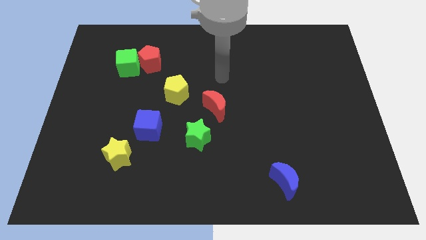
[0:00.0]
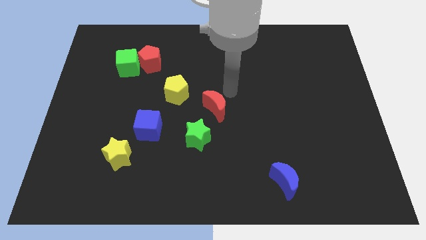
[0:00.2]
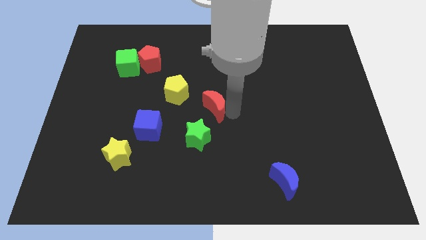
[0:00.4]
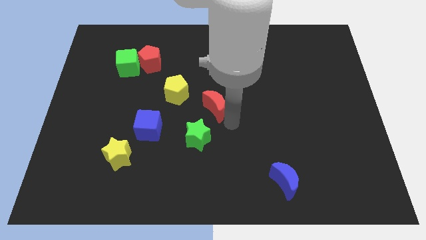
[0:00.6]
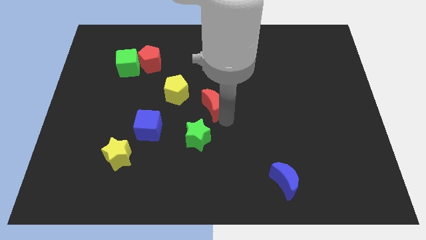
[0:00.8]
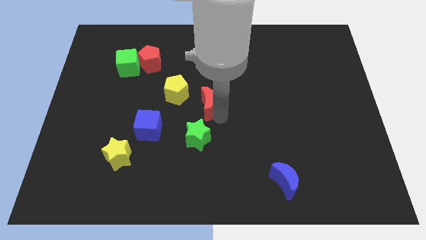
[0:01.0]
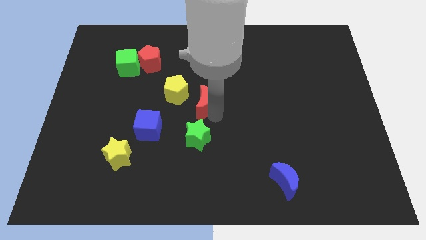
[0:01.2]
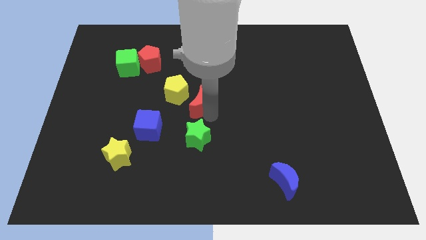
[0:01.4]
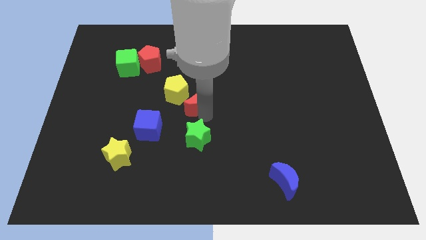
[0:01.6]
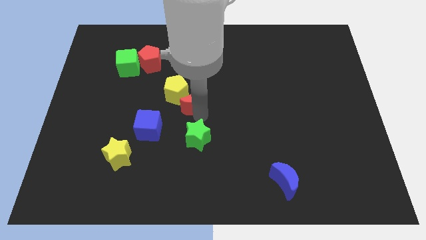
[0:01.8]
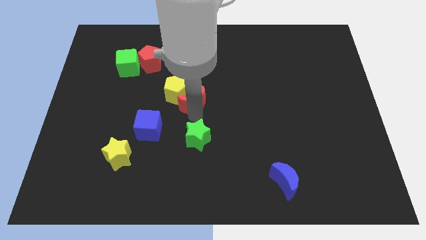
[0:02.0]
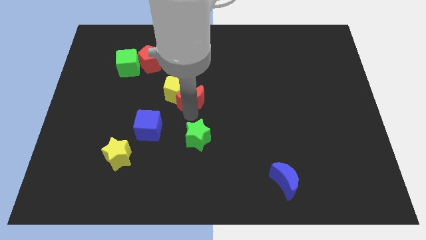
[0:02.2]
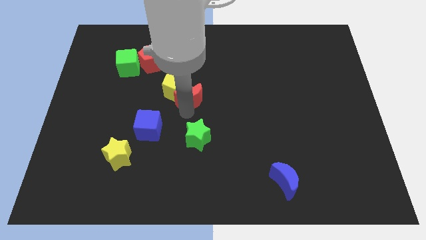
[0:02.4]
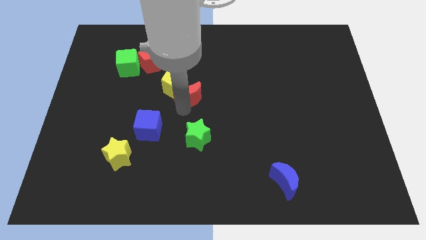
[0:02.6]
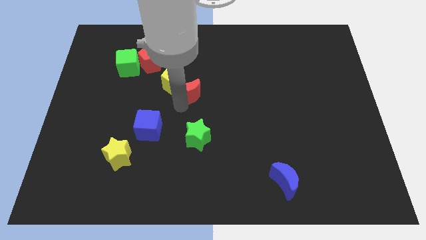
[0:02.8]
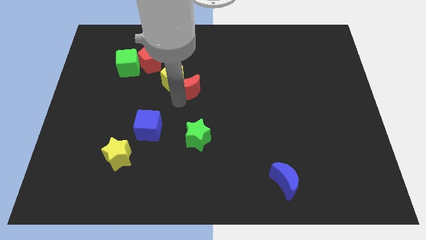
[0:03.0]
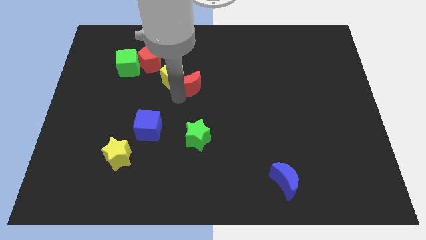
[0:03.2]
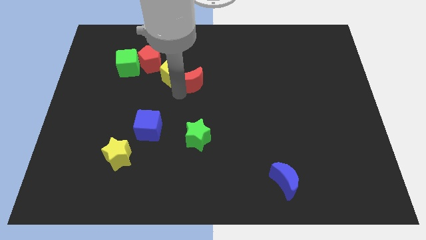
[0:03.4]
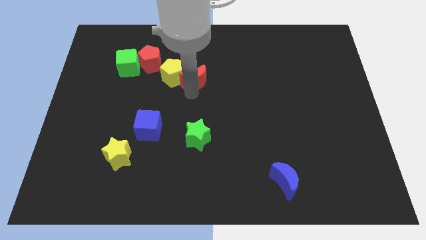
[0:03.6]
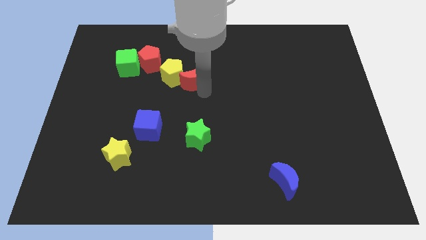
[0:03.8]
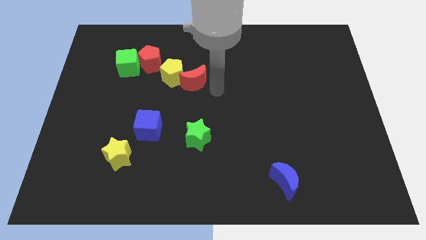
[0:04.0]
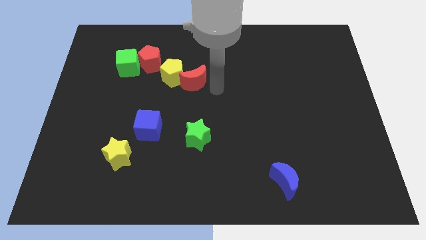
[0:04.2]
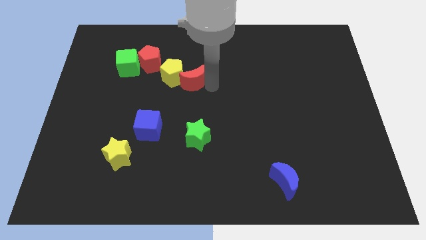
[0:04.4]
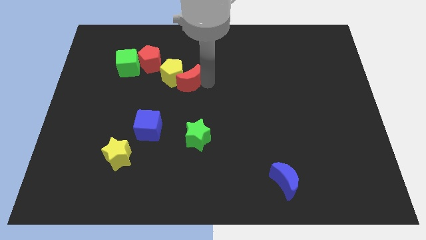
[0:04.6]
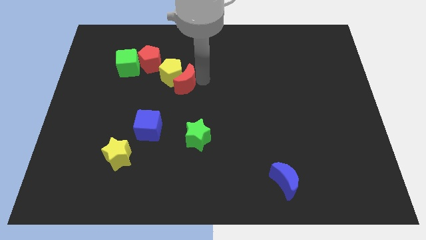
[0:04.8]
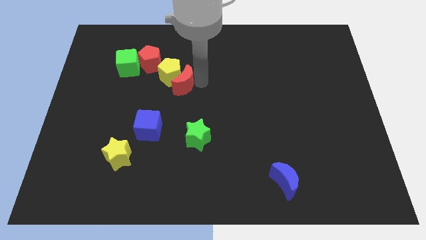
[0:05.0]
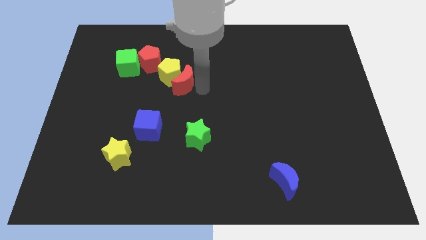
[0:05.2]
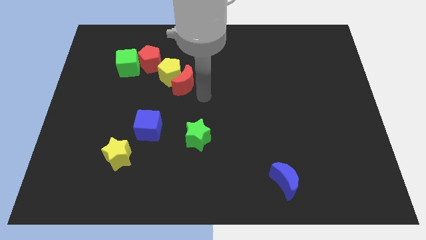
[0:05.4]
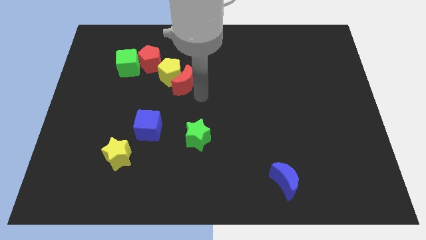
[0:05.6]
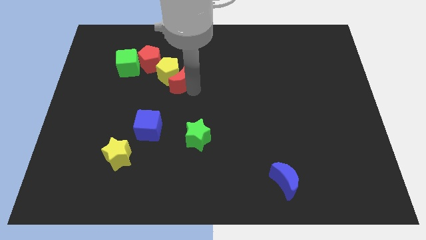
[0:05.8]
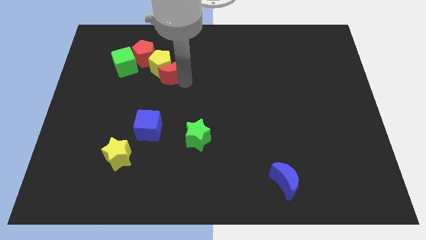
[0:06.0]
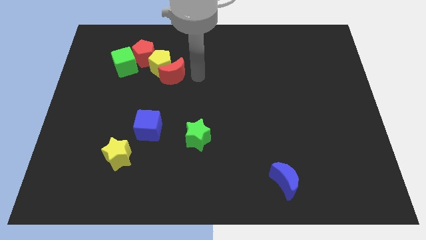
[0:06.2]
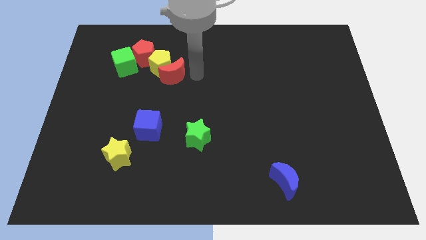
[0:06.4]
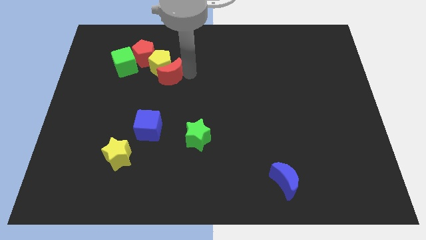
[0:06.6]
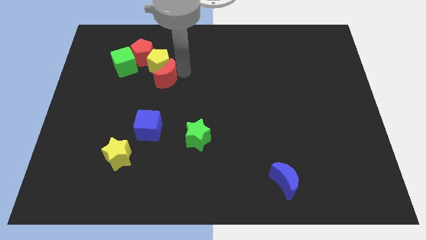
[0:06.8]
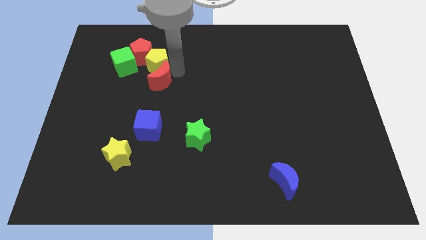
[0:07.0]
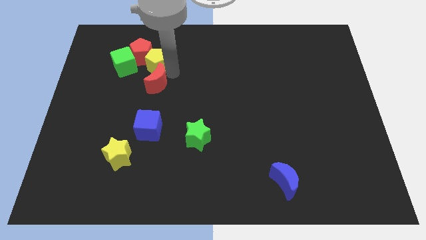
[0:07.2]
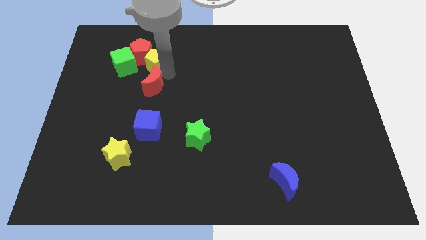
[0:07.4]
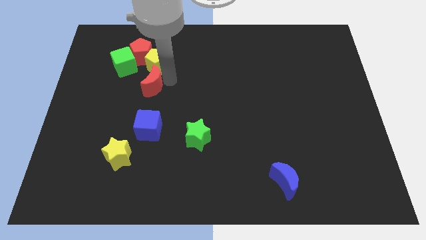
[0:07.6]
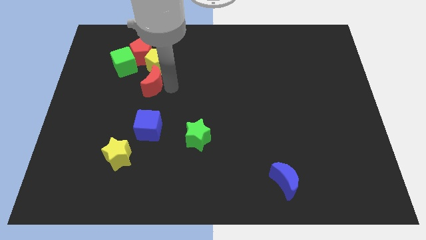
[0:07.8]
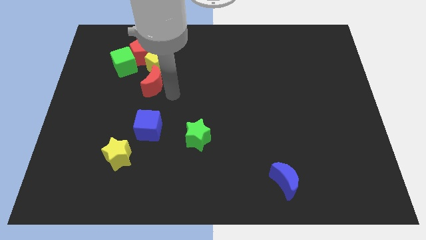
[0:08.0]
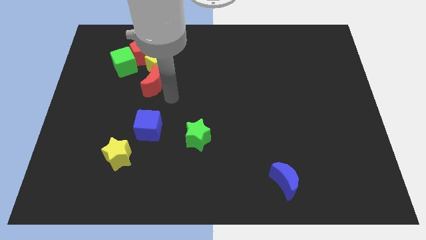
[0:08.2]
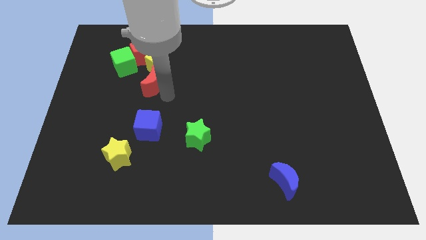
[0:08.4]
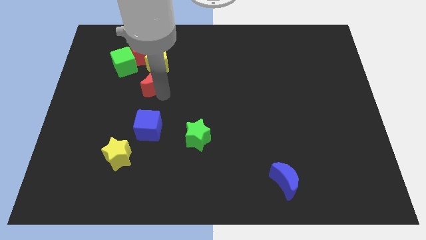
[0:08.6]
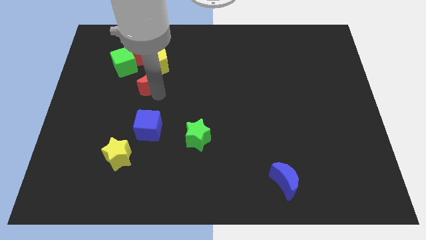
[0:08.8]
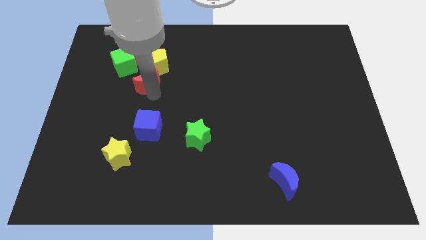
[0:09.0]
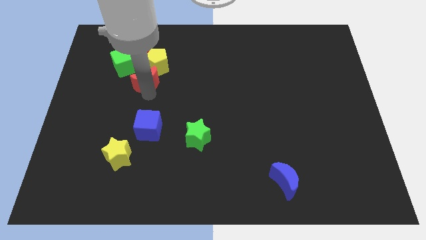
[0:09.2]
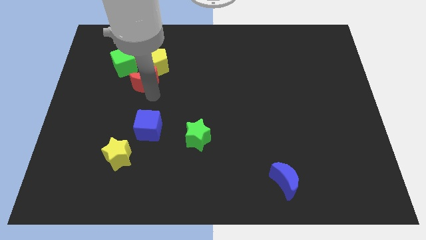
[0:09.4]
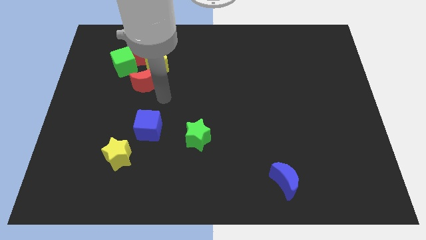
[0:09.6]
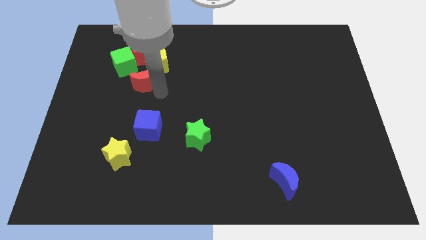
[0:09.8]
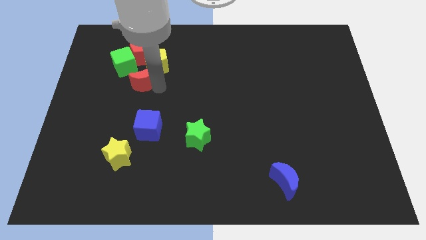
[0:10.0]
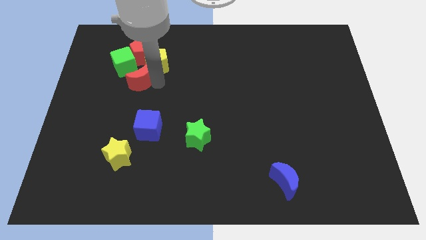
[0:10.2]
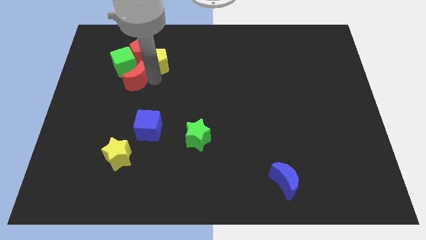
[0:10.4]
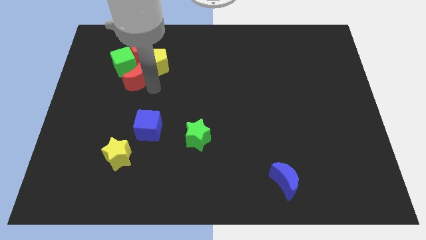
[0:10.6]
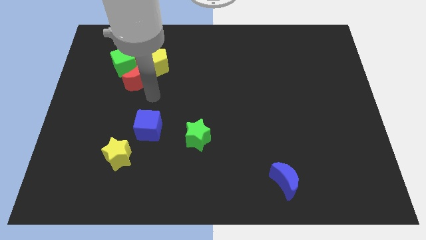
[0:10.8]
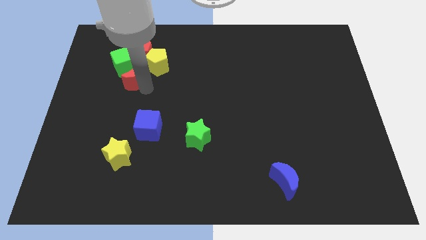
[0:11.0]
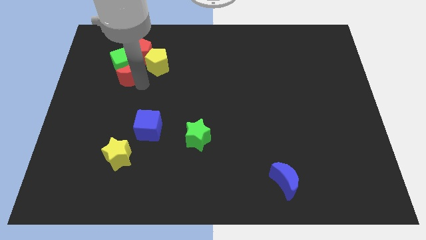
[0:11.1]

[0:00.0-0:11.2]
move the red moon towards the green cube

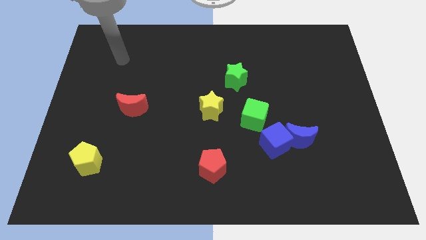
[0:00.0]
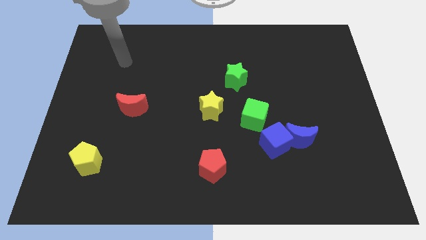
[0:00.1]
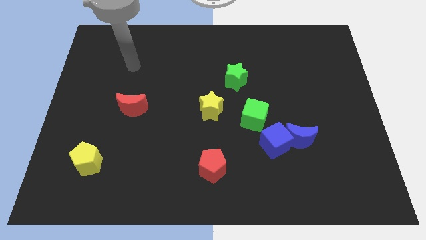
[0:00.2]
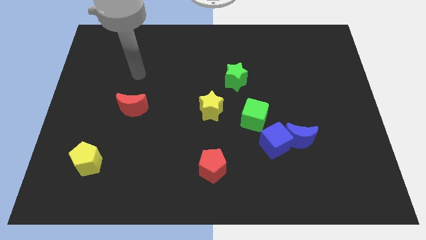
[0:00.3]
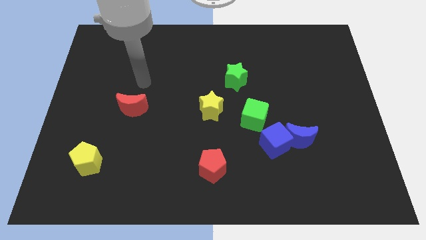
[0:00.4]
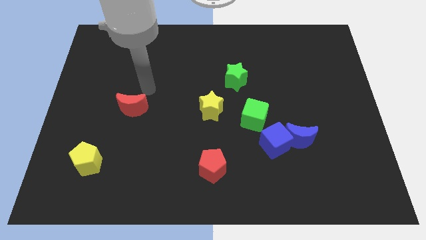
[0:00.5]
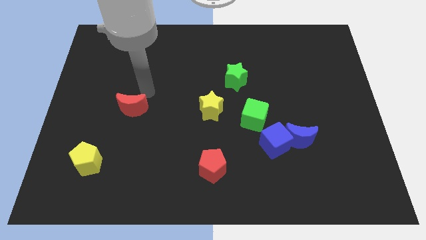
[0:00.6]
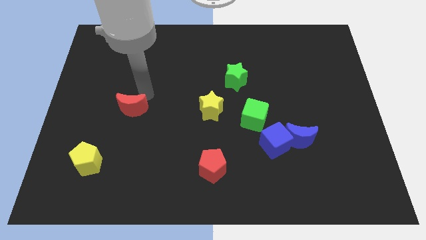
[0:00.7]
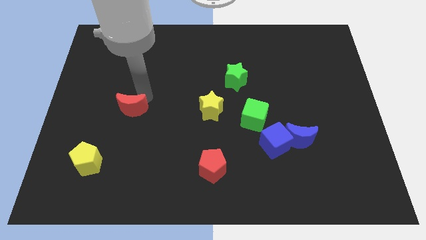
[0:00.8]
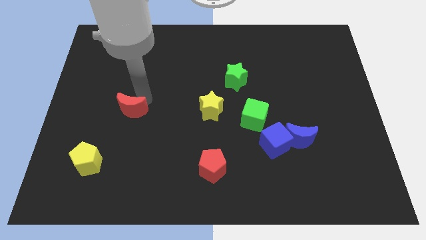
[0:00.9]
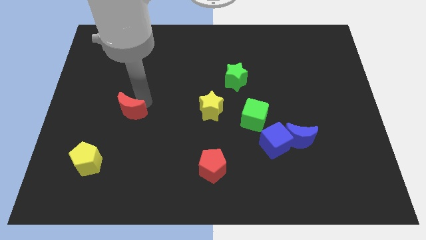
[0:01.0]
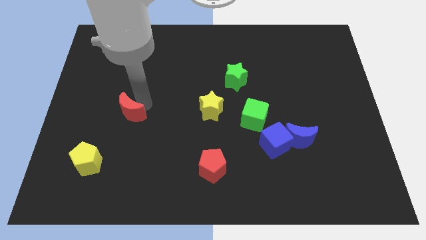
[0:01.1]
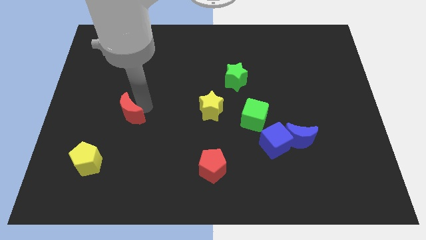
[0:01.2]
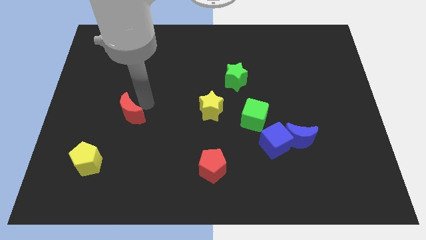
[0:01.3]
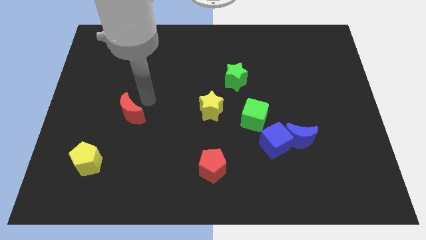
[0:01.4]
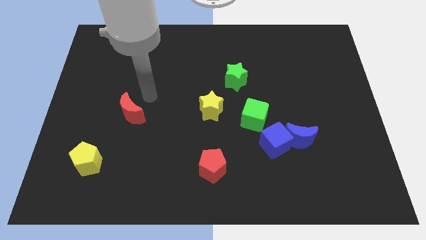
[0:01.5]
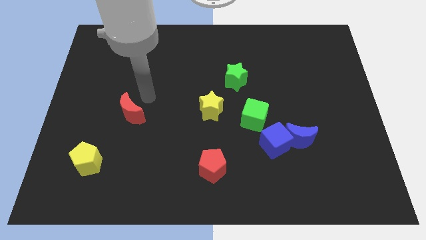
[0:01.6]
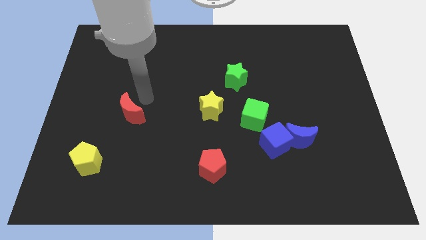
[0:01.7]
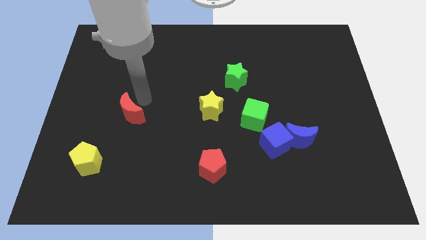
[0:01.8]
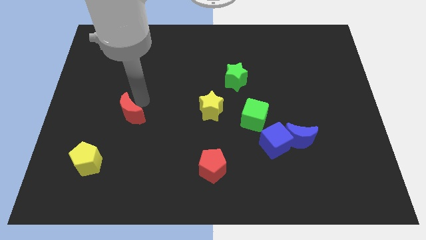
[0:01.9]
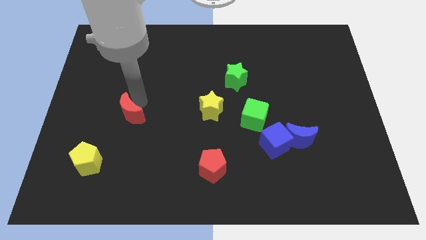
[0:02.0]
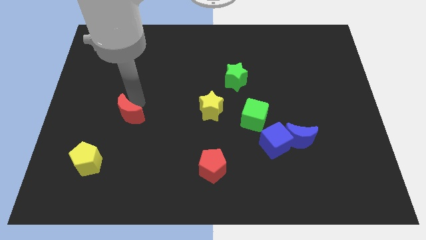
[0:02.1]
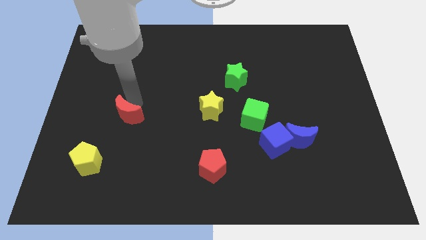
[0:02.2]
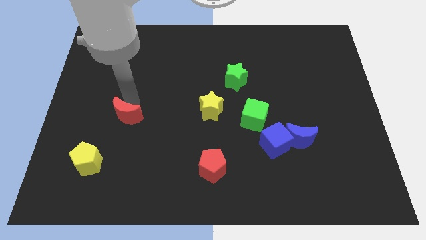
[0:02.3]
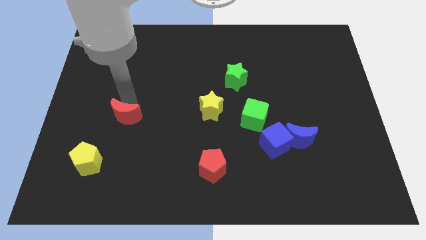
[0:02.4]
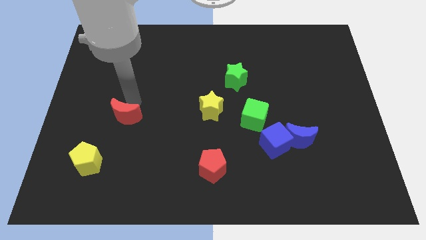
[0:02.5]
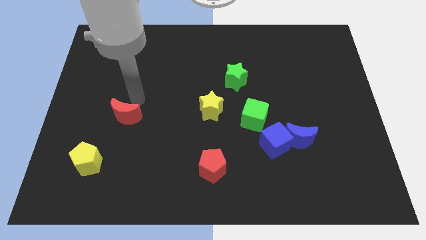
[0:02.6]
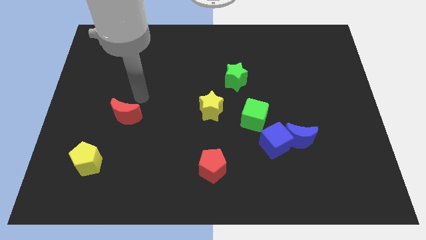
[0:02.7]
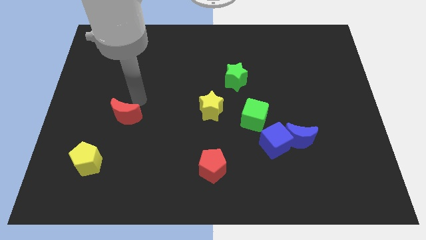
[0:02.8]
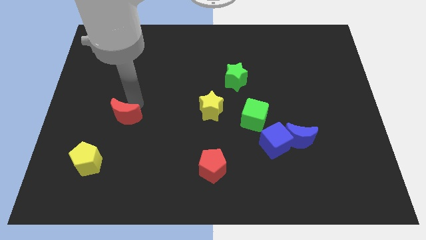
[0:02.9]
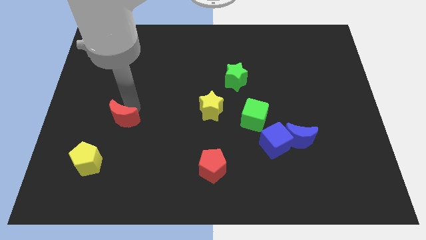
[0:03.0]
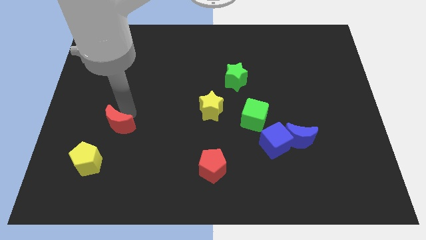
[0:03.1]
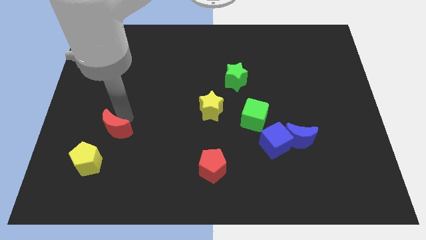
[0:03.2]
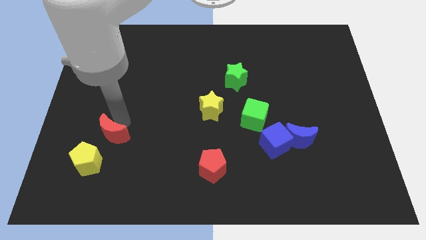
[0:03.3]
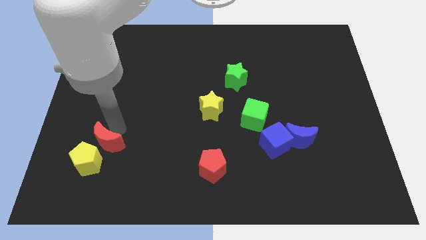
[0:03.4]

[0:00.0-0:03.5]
push the red moon close to the yellow pentagon
